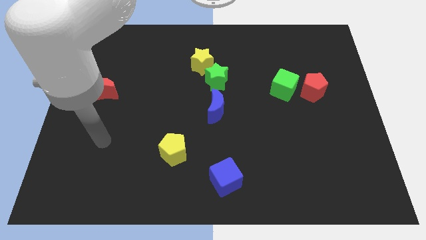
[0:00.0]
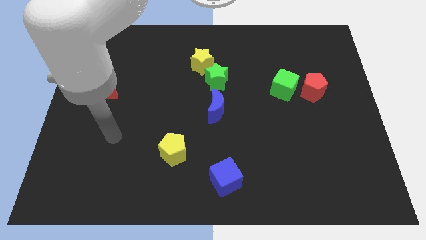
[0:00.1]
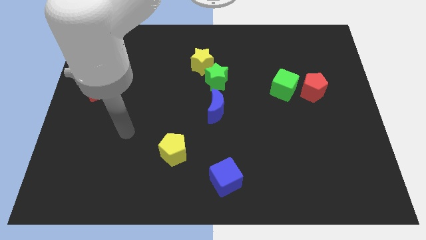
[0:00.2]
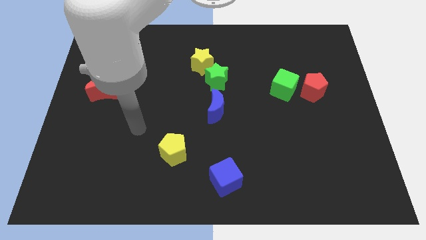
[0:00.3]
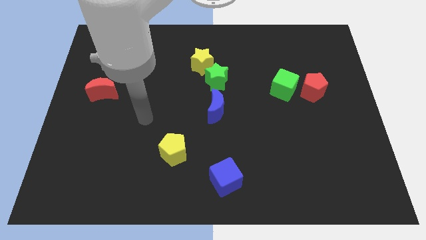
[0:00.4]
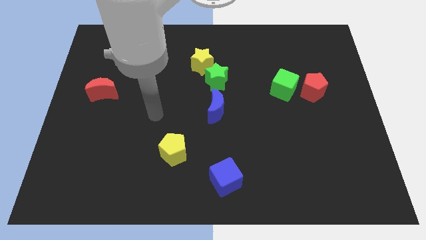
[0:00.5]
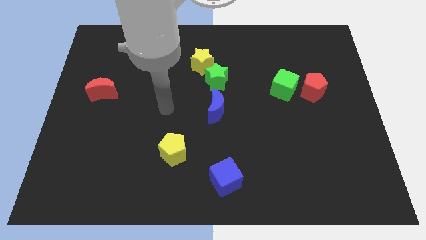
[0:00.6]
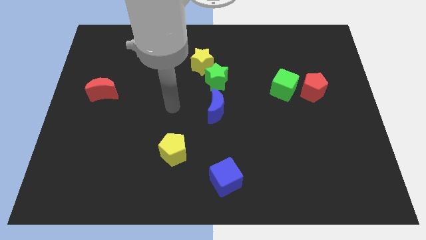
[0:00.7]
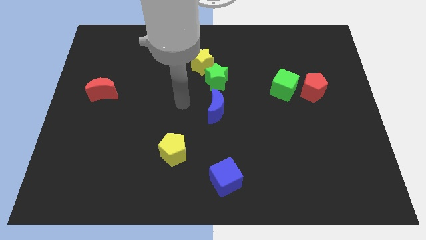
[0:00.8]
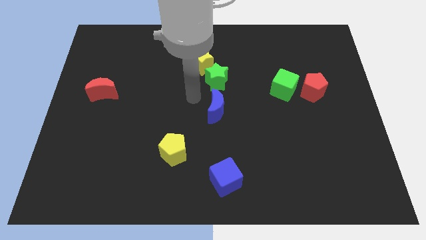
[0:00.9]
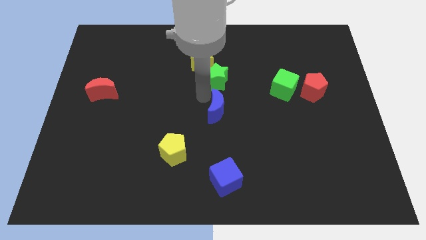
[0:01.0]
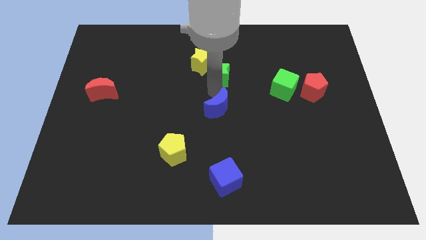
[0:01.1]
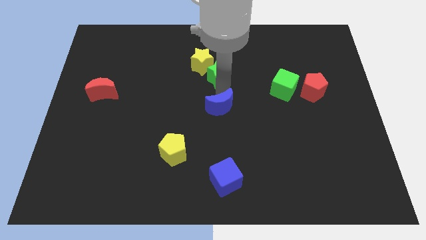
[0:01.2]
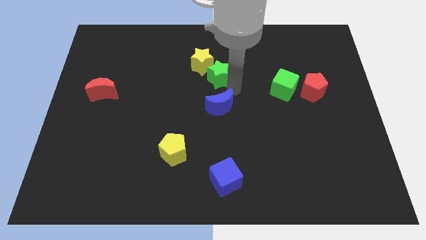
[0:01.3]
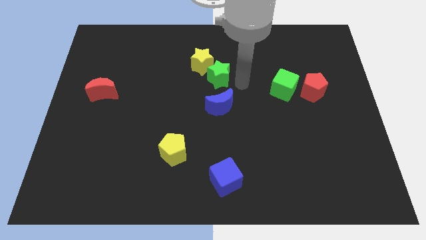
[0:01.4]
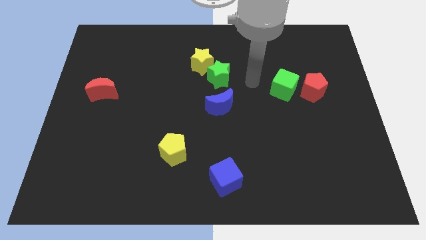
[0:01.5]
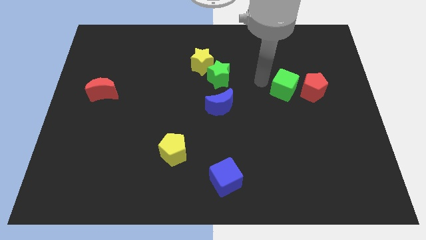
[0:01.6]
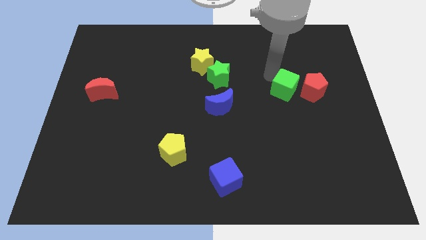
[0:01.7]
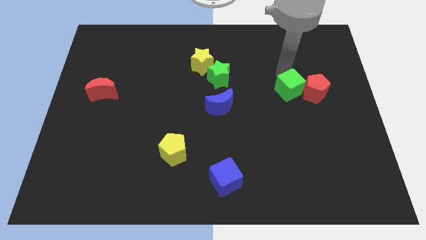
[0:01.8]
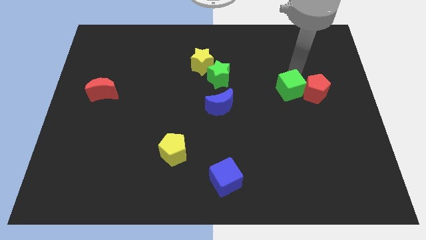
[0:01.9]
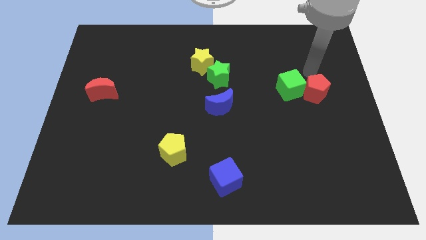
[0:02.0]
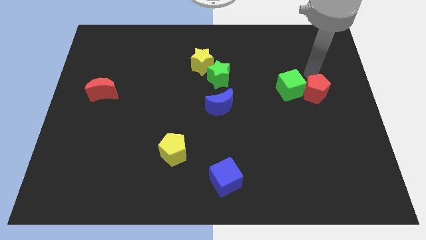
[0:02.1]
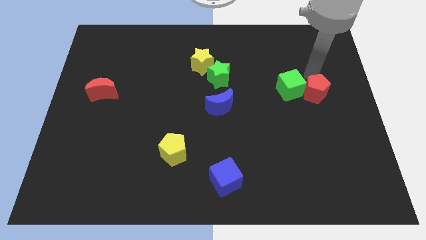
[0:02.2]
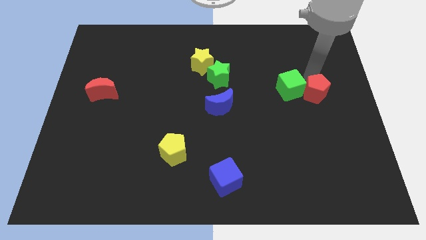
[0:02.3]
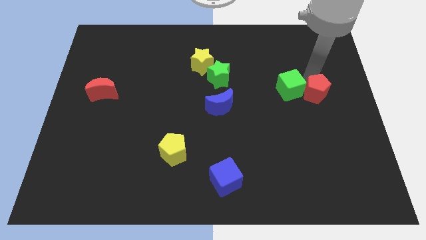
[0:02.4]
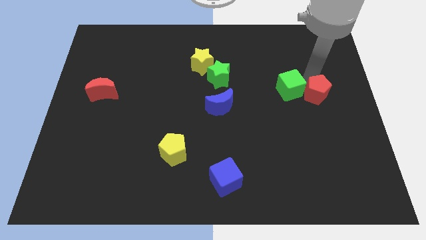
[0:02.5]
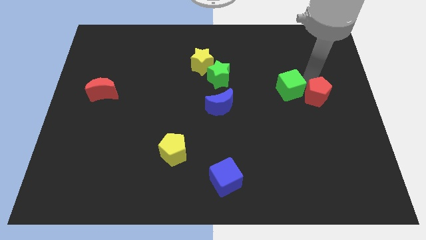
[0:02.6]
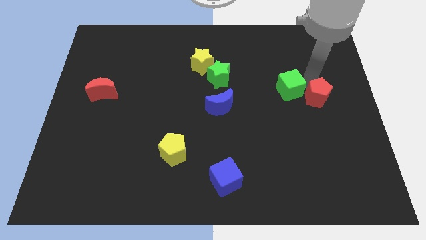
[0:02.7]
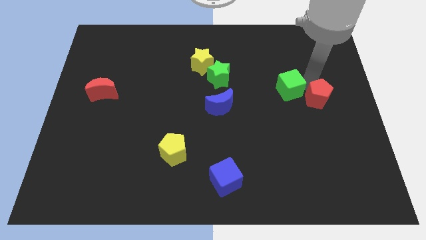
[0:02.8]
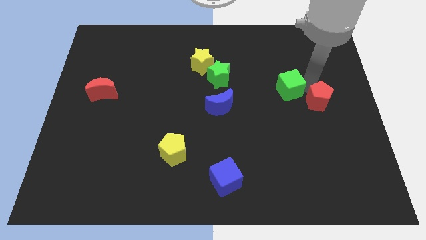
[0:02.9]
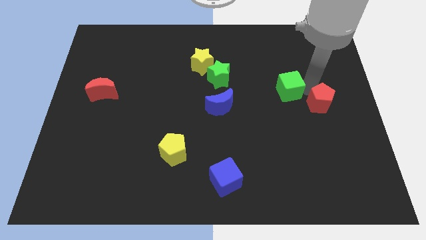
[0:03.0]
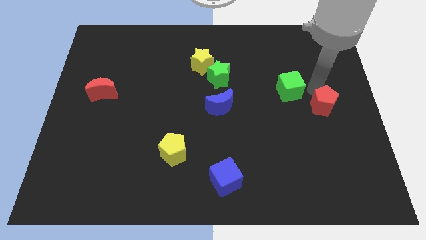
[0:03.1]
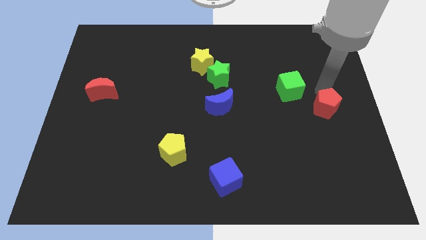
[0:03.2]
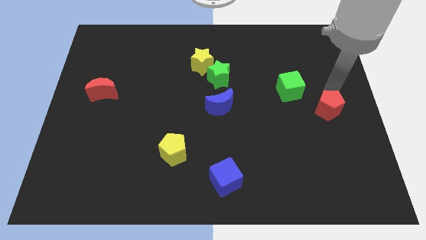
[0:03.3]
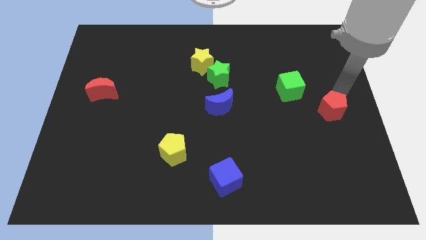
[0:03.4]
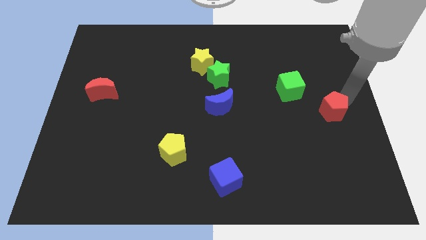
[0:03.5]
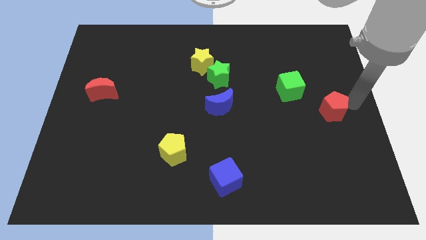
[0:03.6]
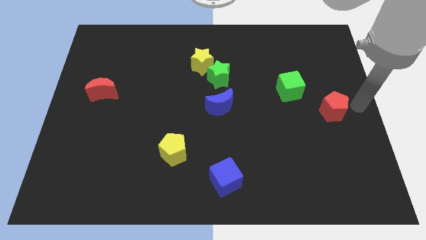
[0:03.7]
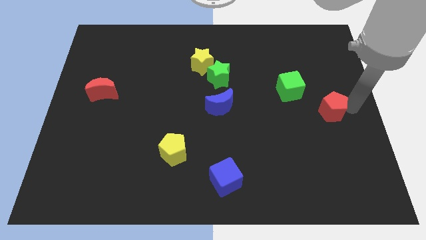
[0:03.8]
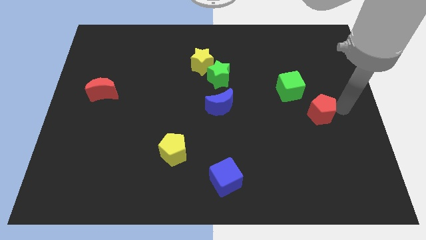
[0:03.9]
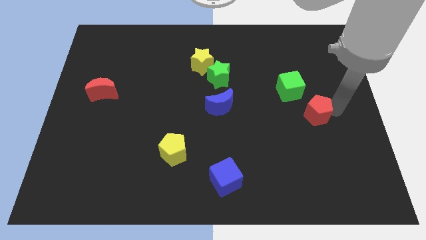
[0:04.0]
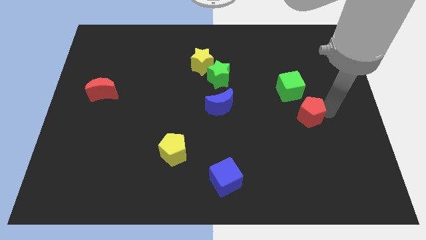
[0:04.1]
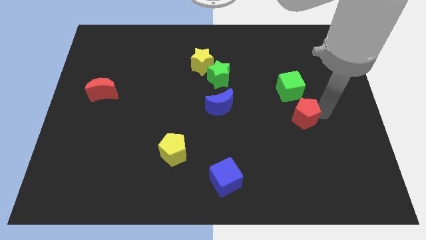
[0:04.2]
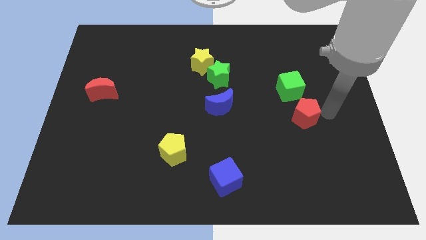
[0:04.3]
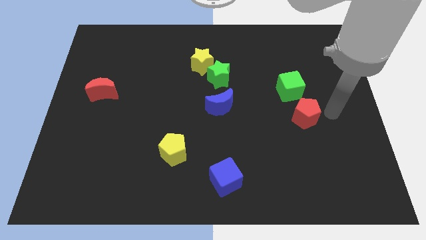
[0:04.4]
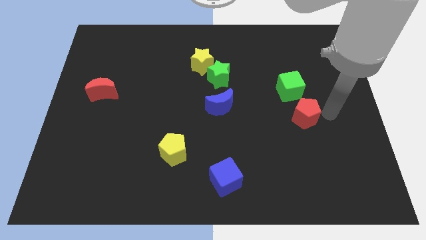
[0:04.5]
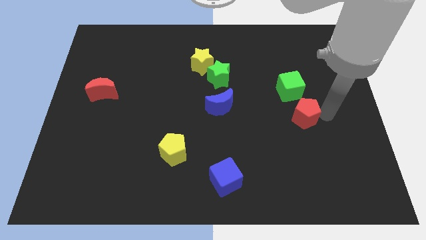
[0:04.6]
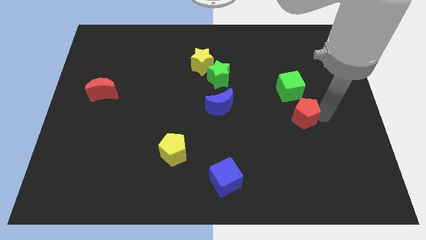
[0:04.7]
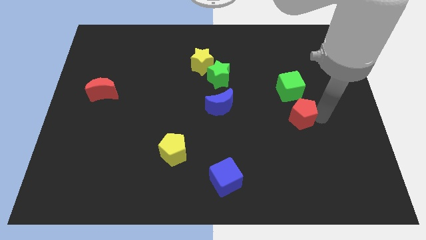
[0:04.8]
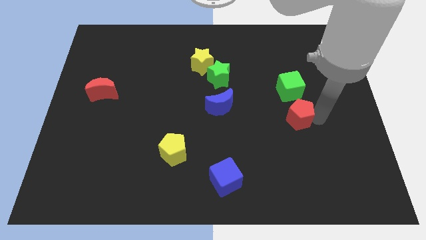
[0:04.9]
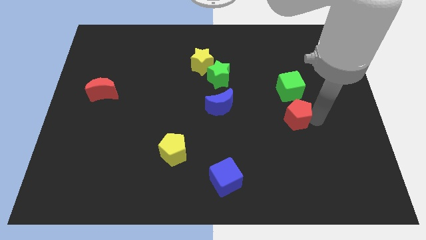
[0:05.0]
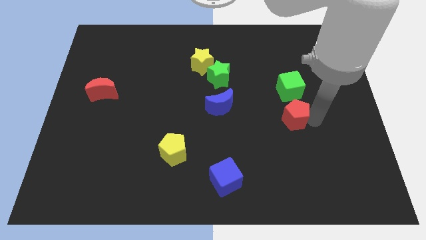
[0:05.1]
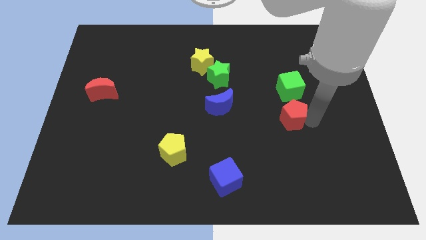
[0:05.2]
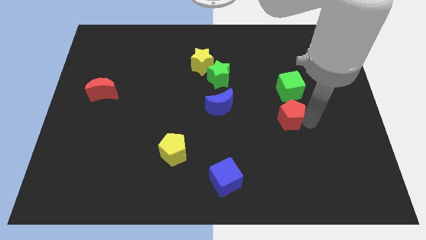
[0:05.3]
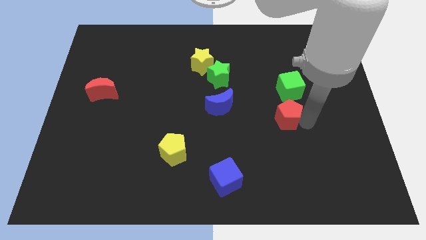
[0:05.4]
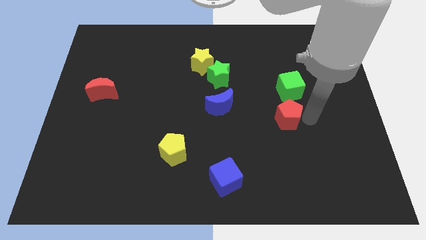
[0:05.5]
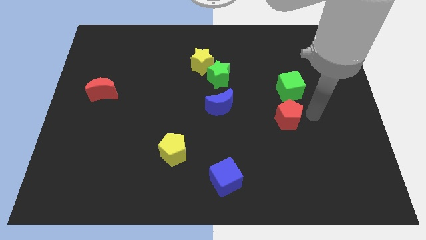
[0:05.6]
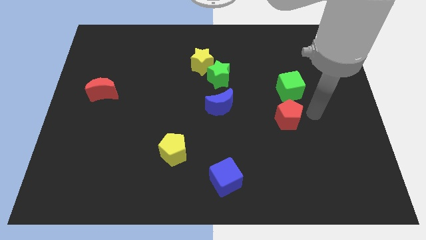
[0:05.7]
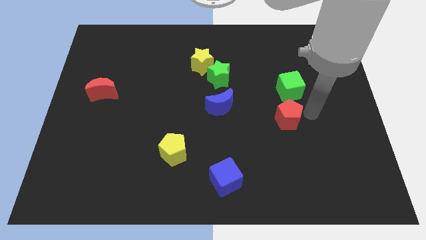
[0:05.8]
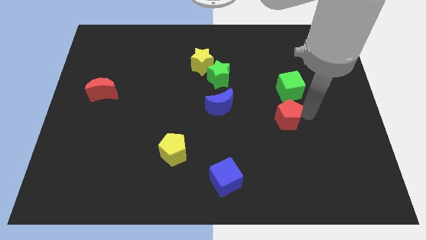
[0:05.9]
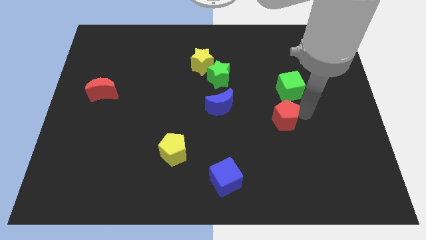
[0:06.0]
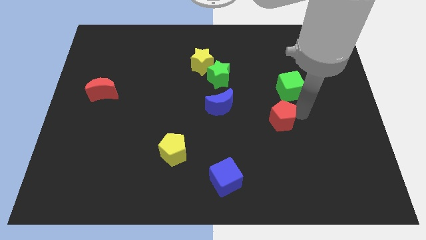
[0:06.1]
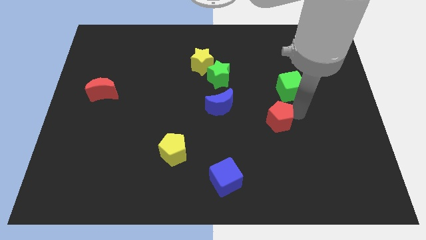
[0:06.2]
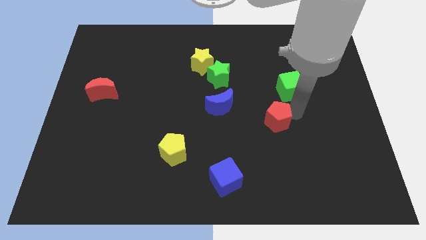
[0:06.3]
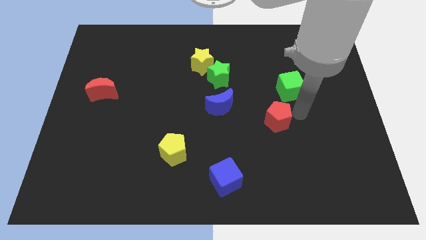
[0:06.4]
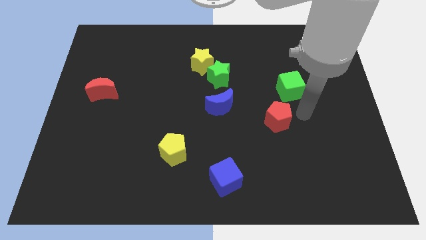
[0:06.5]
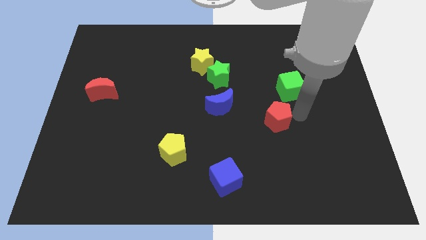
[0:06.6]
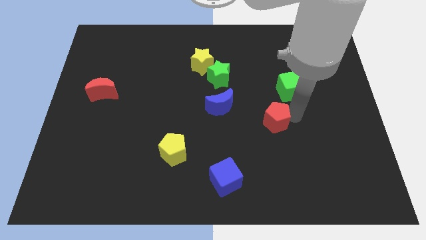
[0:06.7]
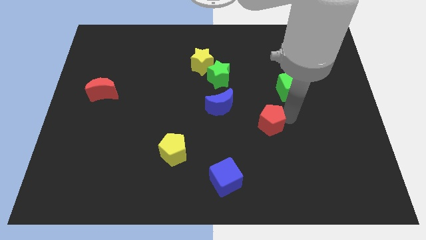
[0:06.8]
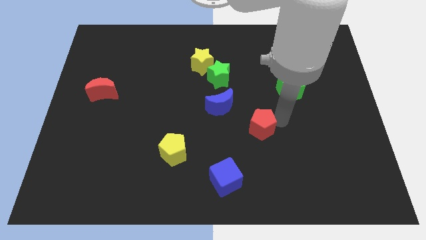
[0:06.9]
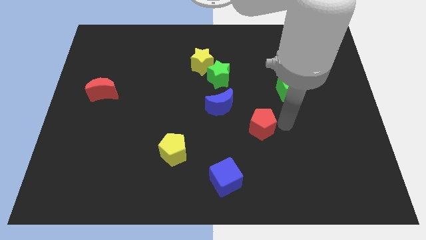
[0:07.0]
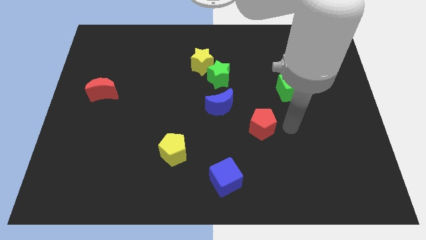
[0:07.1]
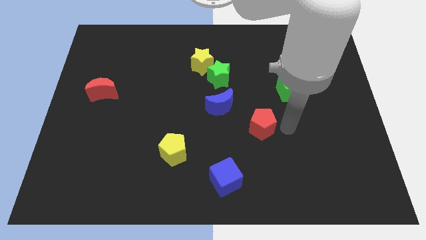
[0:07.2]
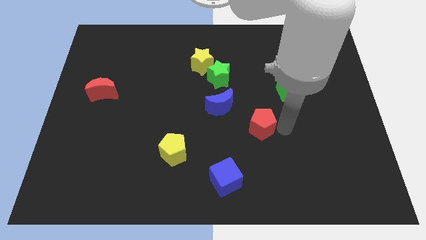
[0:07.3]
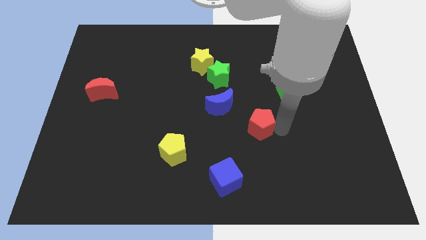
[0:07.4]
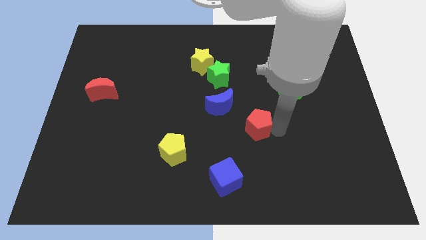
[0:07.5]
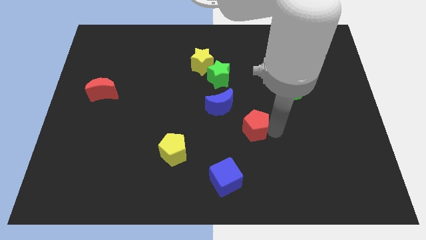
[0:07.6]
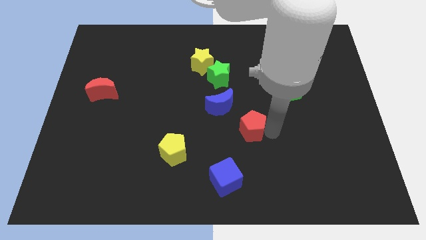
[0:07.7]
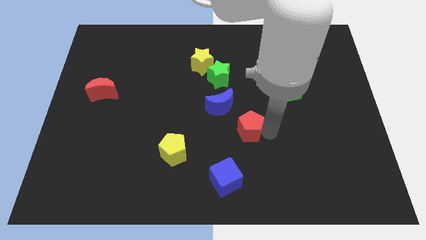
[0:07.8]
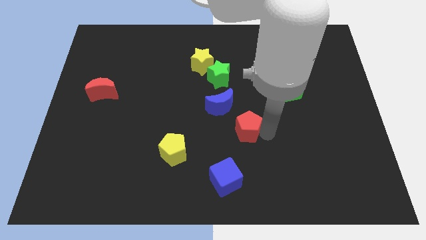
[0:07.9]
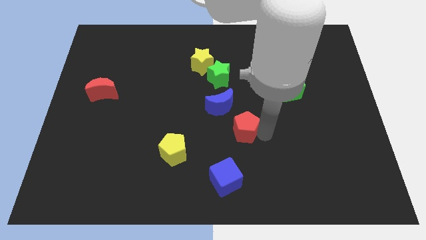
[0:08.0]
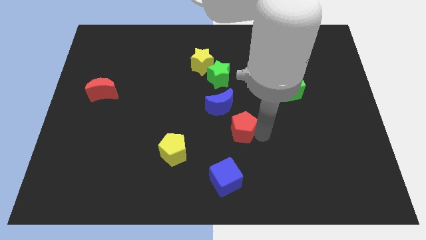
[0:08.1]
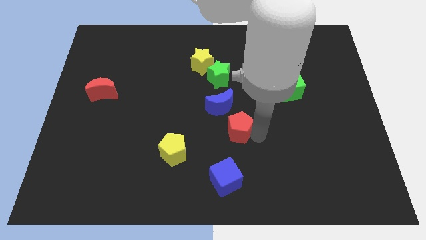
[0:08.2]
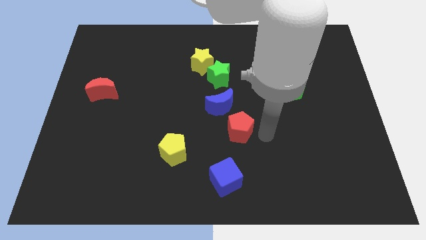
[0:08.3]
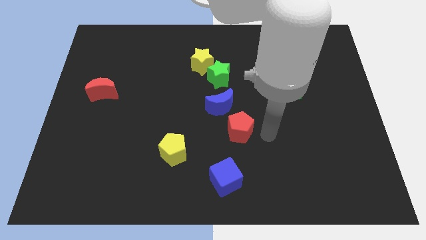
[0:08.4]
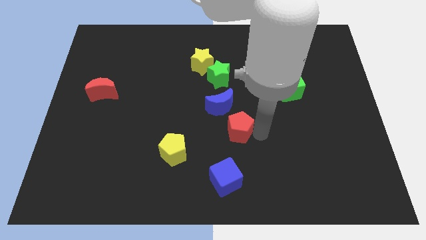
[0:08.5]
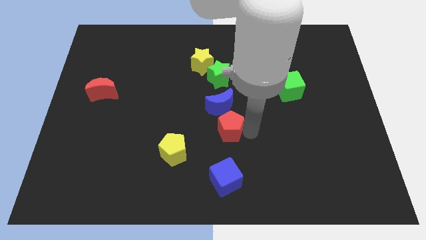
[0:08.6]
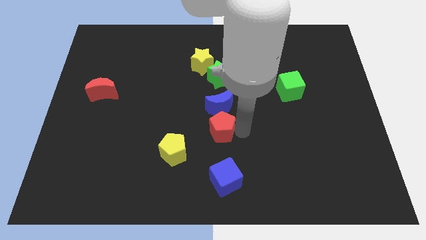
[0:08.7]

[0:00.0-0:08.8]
slide the red pentagon diagonally down and to the left of the blue moon
